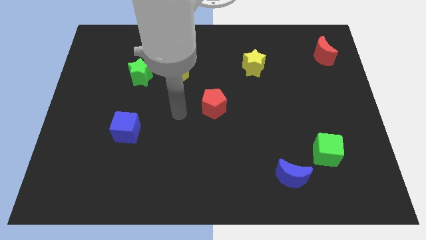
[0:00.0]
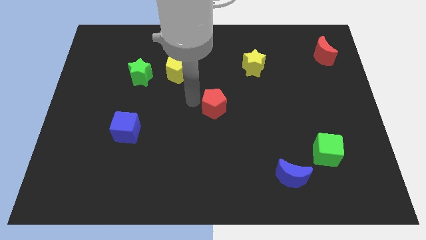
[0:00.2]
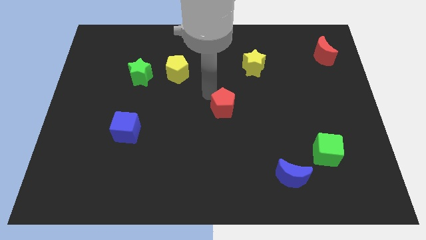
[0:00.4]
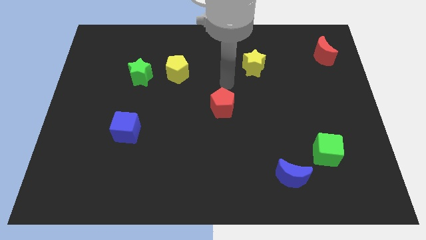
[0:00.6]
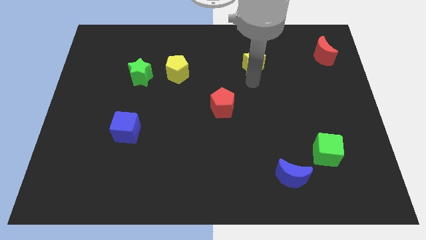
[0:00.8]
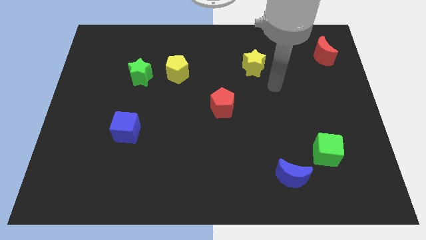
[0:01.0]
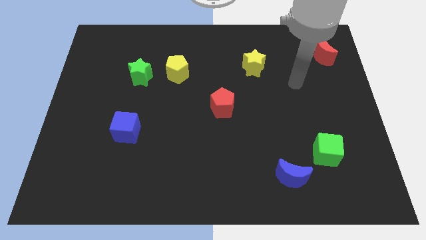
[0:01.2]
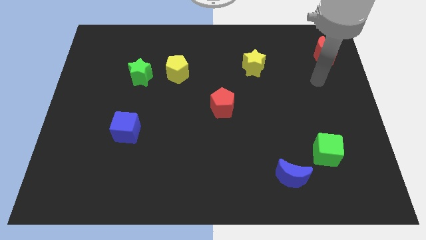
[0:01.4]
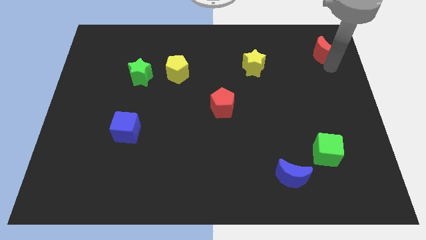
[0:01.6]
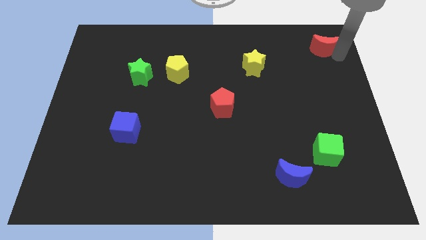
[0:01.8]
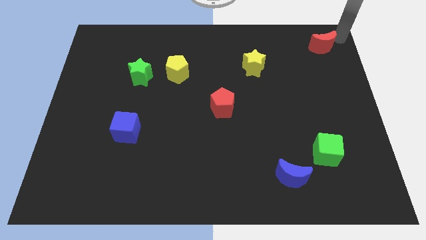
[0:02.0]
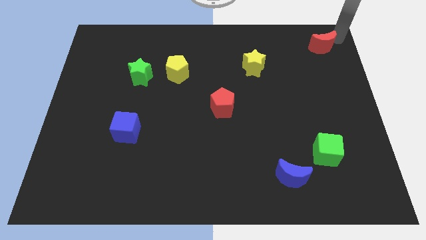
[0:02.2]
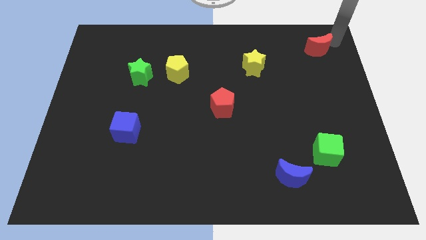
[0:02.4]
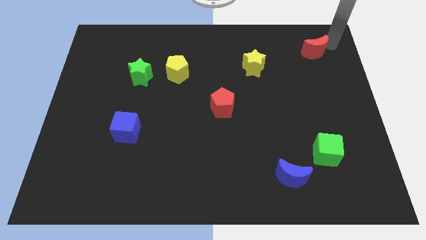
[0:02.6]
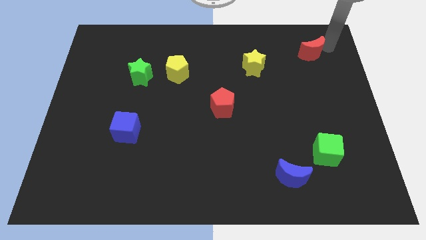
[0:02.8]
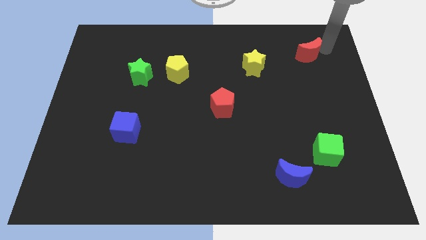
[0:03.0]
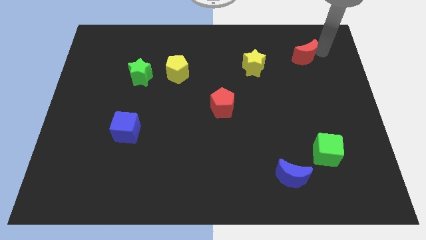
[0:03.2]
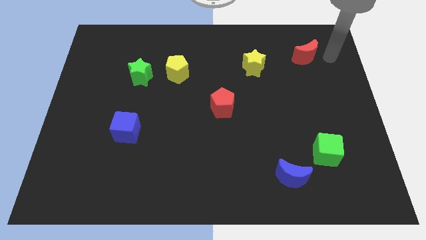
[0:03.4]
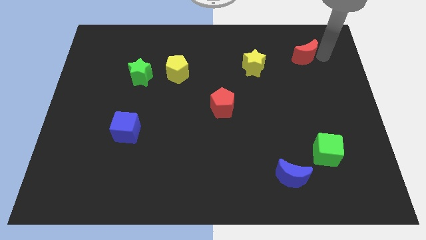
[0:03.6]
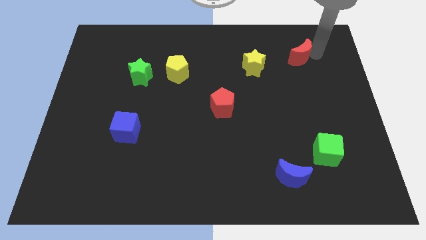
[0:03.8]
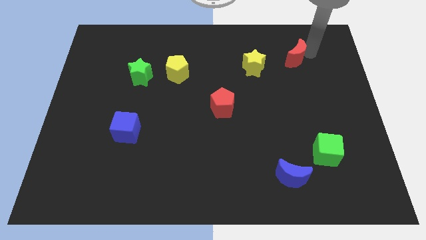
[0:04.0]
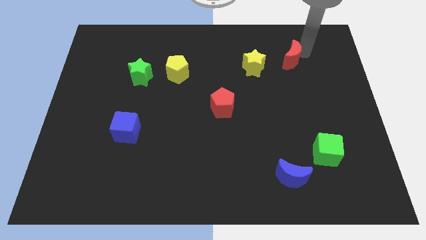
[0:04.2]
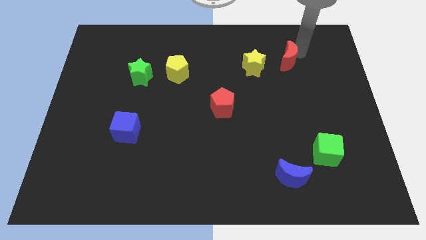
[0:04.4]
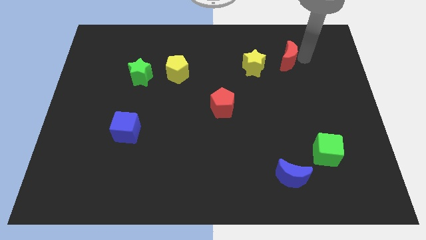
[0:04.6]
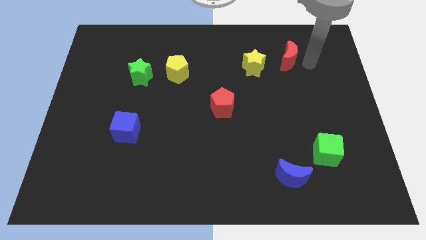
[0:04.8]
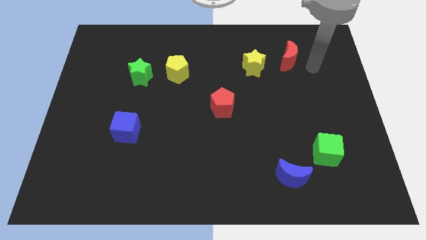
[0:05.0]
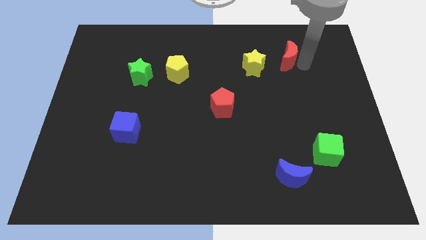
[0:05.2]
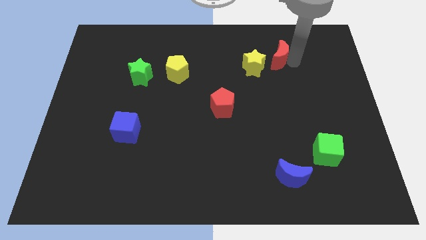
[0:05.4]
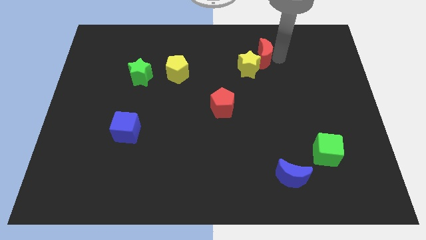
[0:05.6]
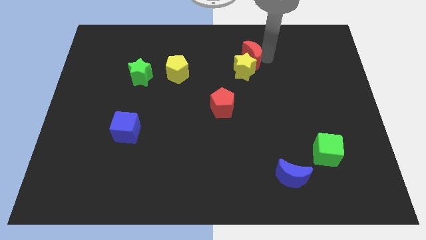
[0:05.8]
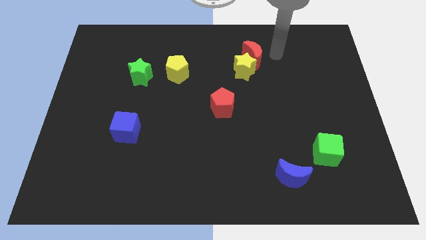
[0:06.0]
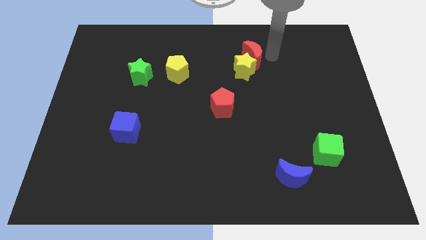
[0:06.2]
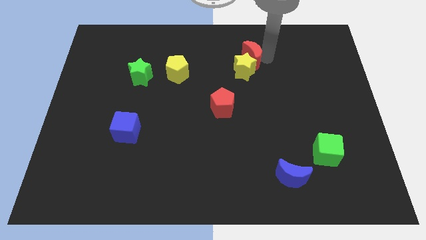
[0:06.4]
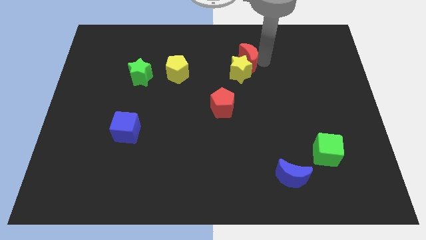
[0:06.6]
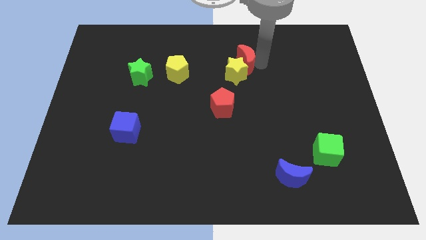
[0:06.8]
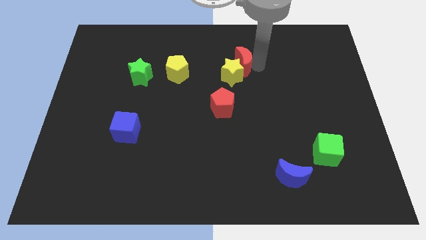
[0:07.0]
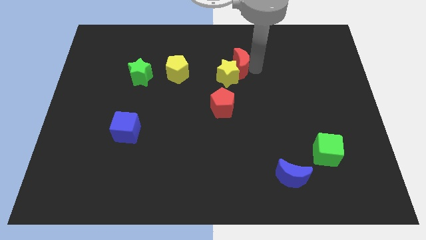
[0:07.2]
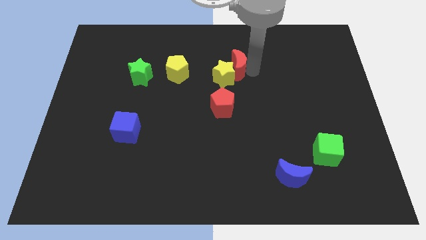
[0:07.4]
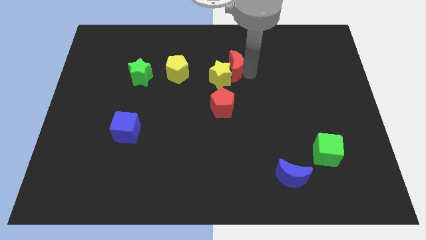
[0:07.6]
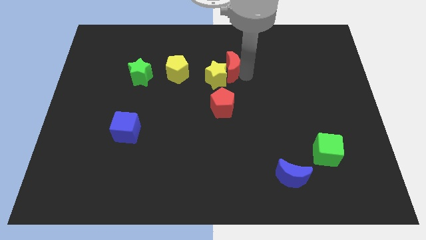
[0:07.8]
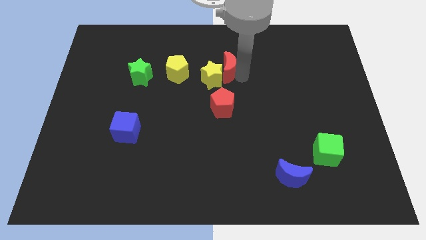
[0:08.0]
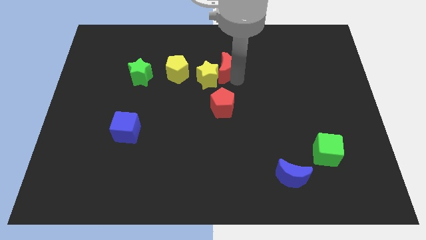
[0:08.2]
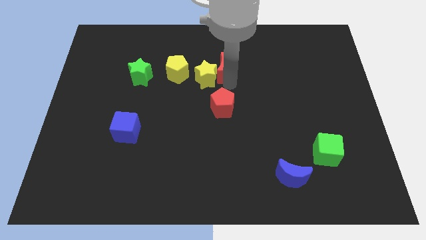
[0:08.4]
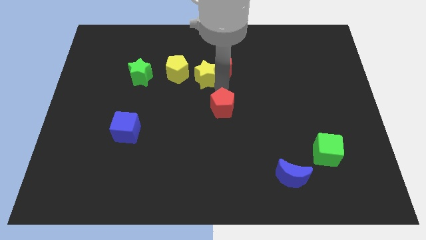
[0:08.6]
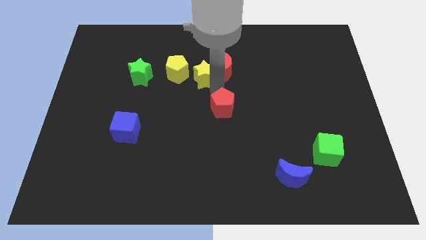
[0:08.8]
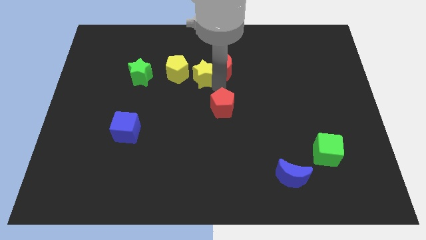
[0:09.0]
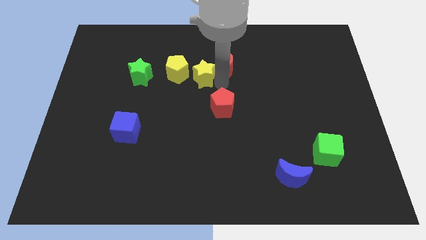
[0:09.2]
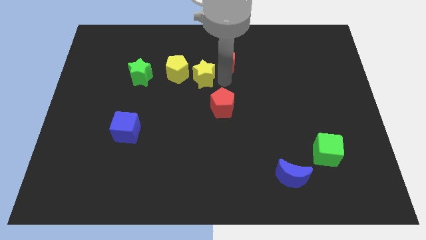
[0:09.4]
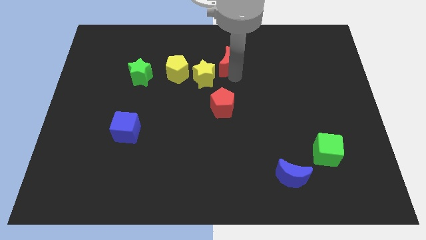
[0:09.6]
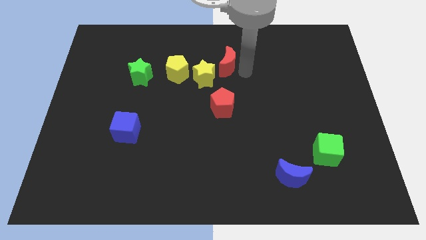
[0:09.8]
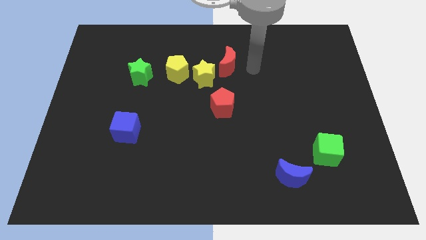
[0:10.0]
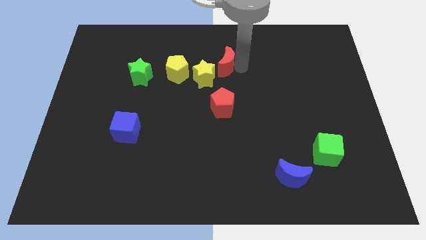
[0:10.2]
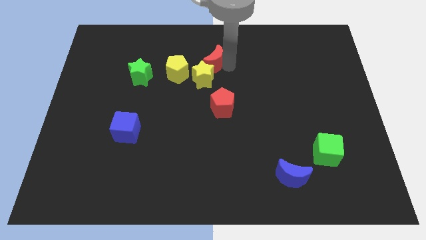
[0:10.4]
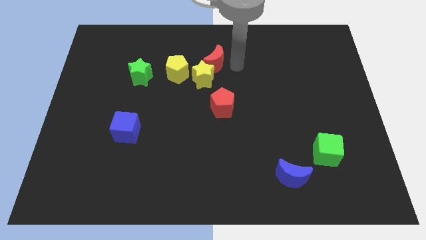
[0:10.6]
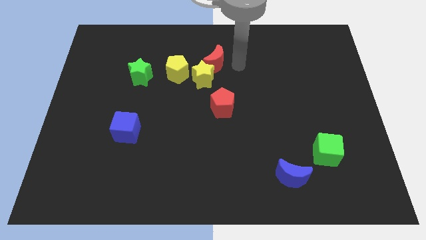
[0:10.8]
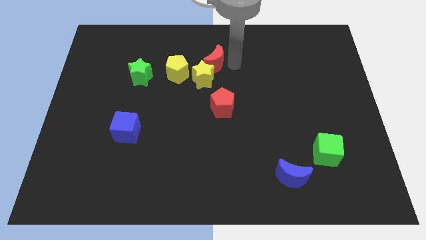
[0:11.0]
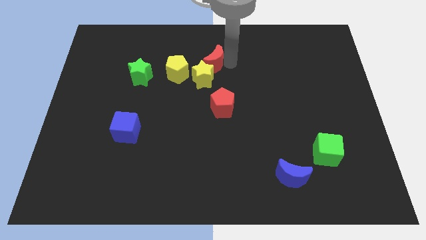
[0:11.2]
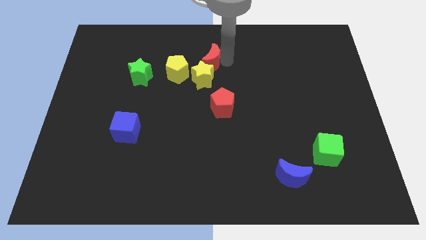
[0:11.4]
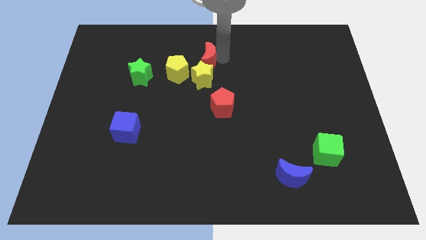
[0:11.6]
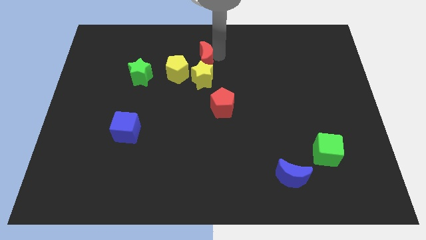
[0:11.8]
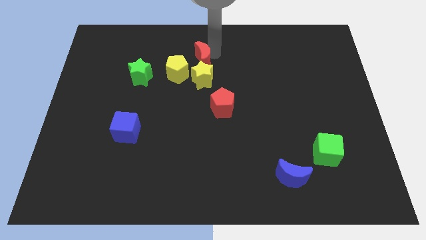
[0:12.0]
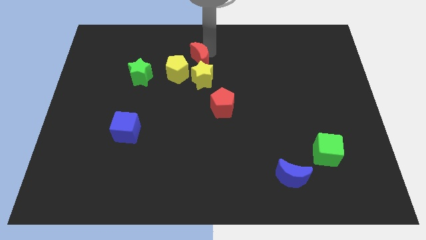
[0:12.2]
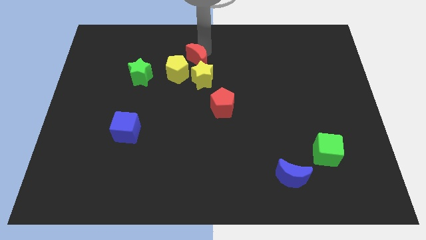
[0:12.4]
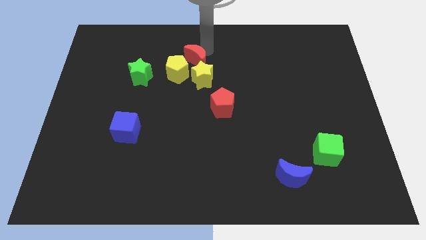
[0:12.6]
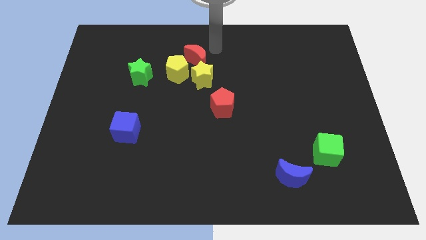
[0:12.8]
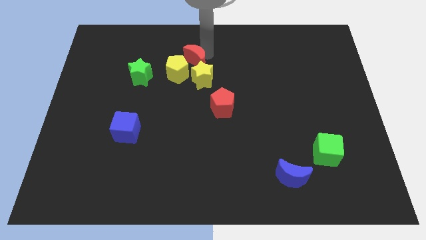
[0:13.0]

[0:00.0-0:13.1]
push the red moon to the yellow pentagon
